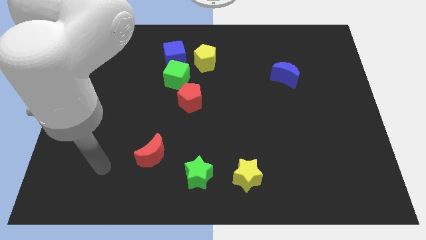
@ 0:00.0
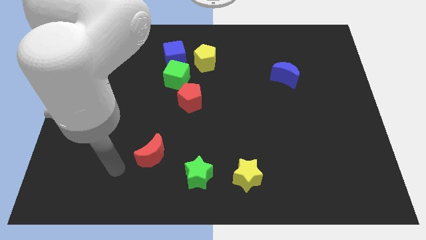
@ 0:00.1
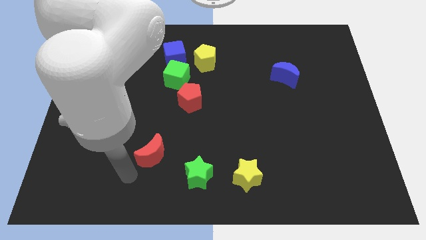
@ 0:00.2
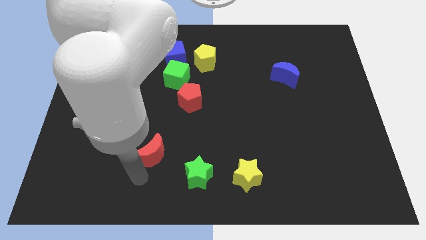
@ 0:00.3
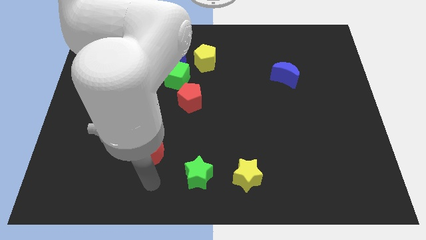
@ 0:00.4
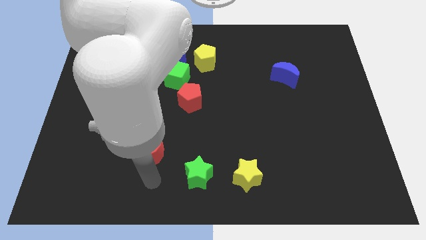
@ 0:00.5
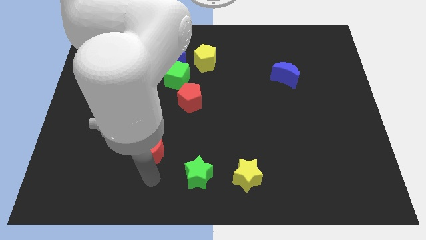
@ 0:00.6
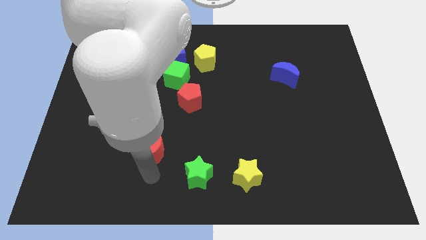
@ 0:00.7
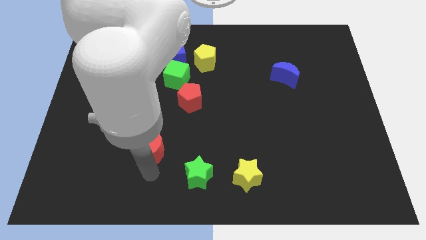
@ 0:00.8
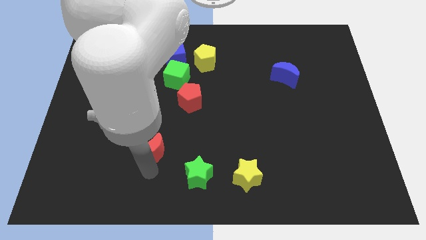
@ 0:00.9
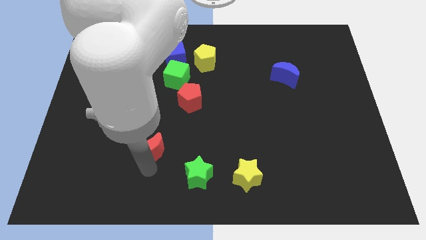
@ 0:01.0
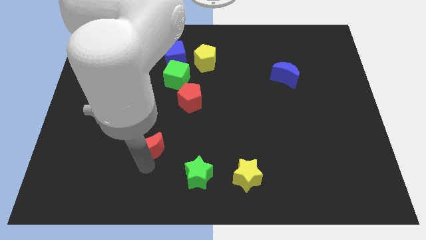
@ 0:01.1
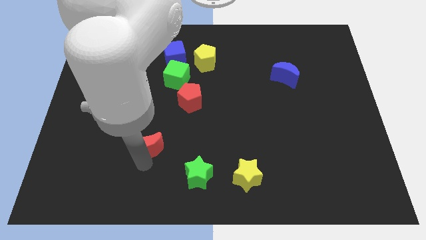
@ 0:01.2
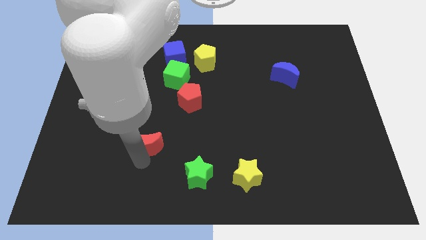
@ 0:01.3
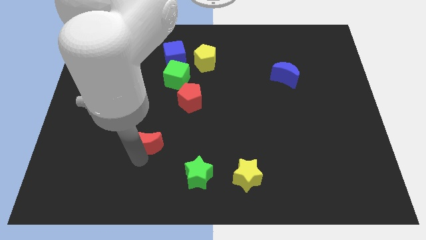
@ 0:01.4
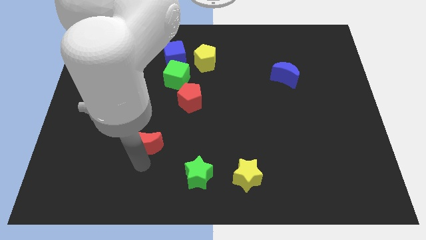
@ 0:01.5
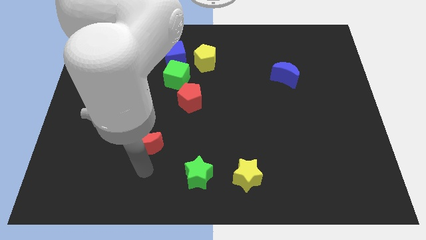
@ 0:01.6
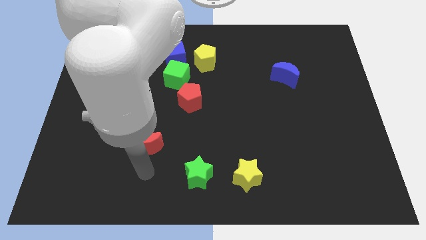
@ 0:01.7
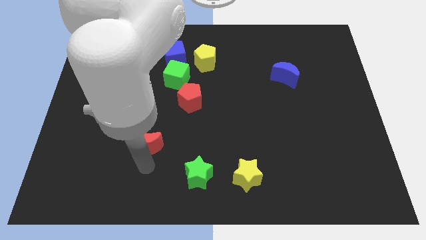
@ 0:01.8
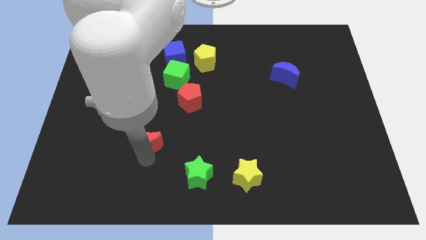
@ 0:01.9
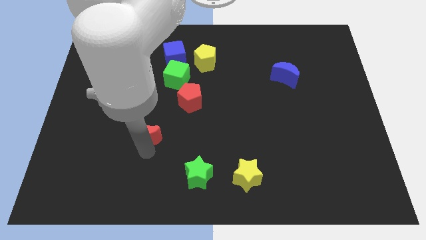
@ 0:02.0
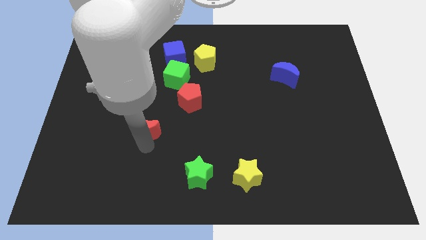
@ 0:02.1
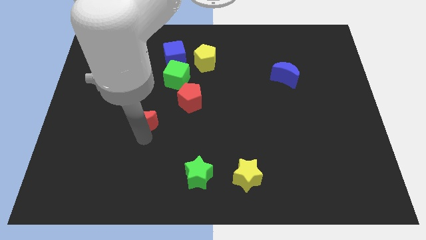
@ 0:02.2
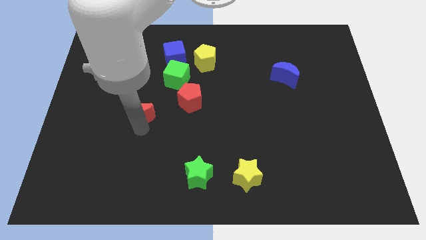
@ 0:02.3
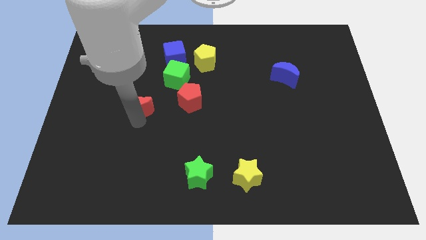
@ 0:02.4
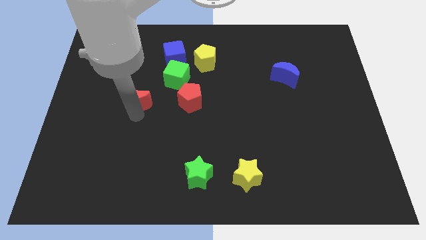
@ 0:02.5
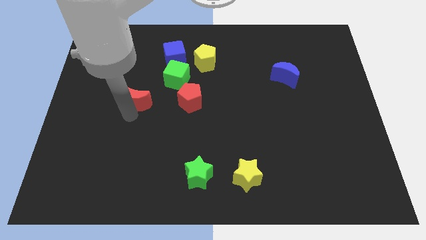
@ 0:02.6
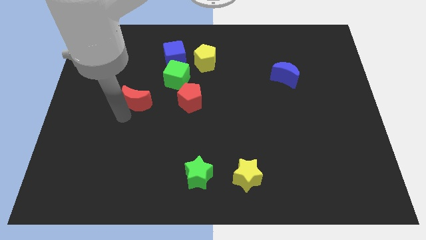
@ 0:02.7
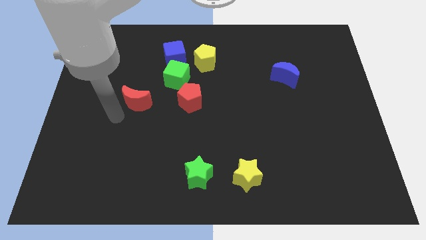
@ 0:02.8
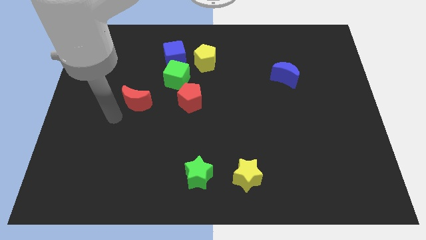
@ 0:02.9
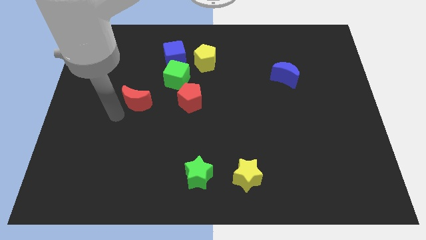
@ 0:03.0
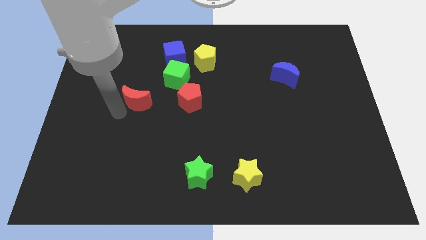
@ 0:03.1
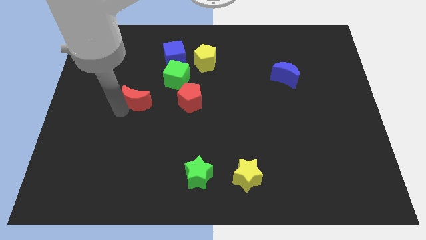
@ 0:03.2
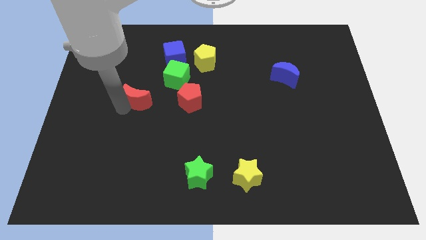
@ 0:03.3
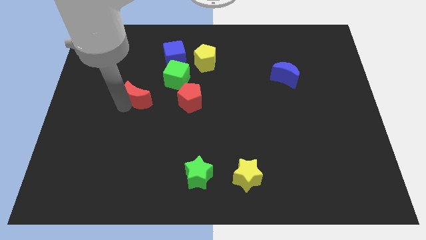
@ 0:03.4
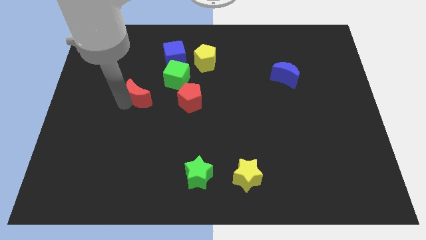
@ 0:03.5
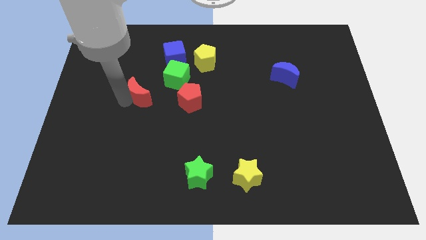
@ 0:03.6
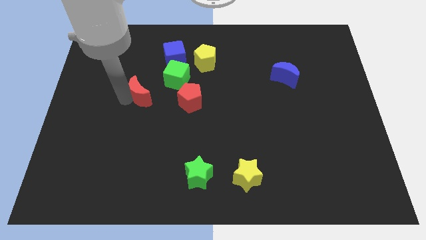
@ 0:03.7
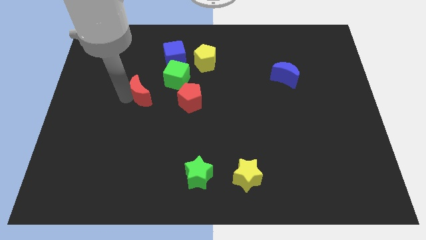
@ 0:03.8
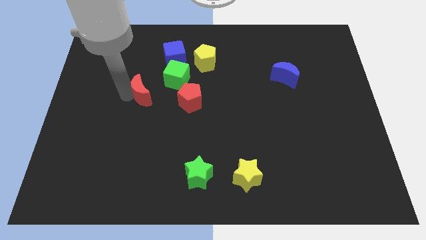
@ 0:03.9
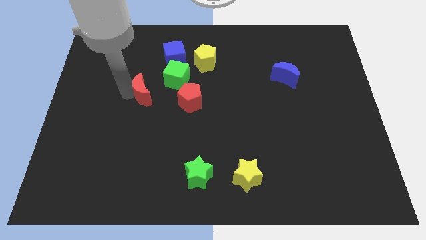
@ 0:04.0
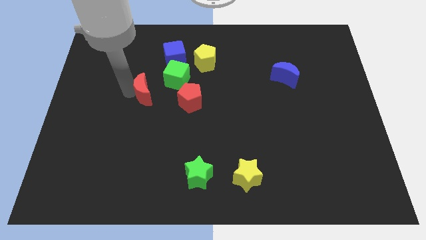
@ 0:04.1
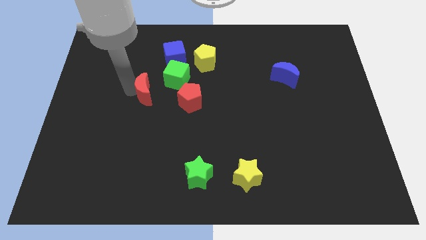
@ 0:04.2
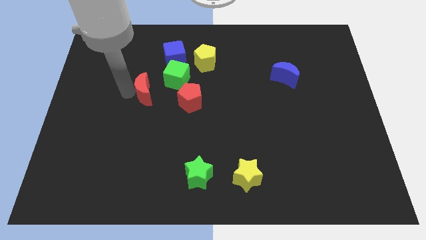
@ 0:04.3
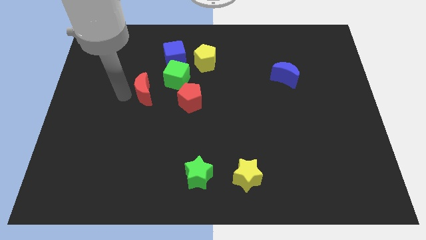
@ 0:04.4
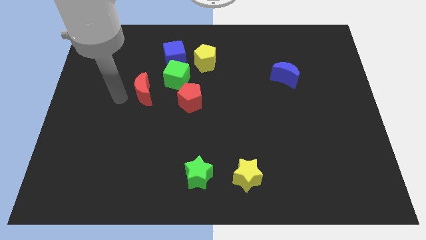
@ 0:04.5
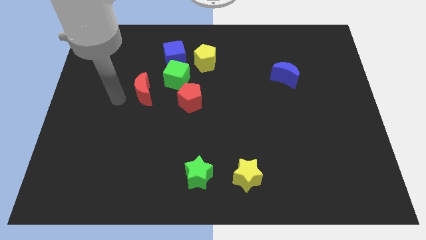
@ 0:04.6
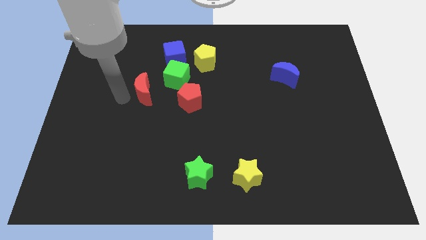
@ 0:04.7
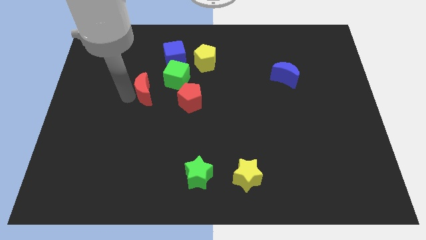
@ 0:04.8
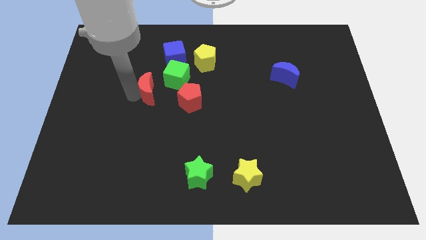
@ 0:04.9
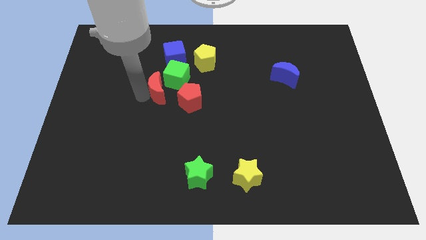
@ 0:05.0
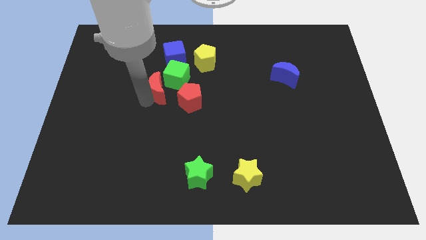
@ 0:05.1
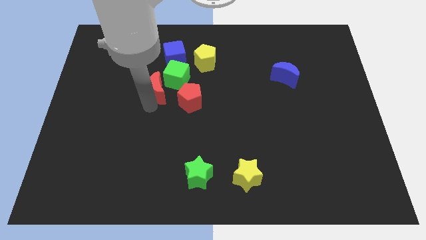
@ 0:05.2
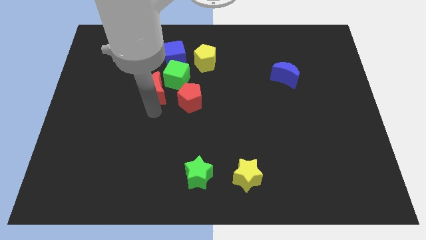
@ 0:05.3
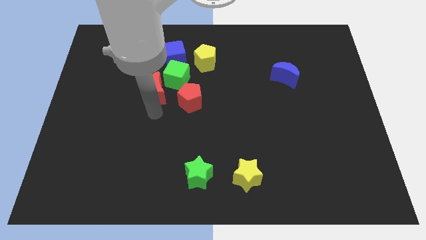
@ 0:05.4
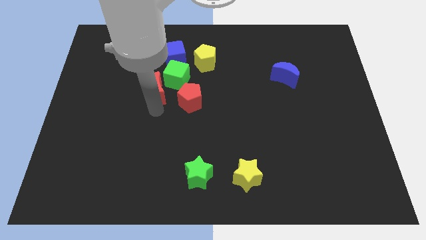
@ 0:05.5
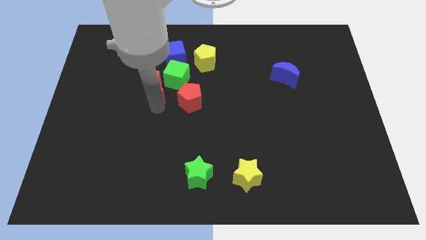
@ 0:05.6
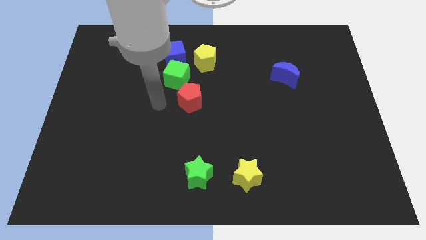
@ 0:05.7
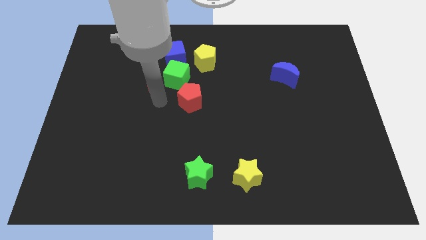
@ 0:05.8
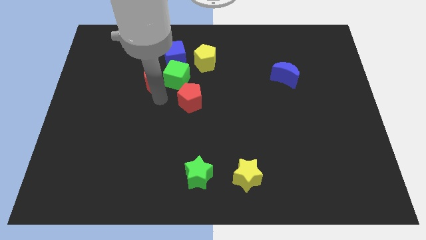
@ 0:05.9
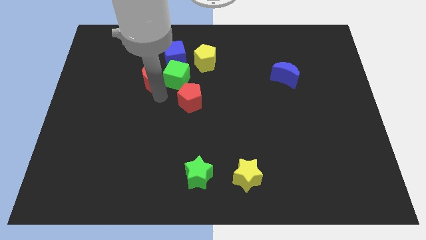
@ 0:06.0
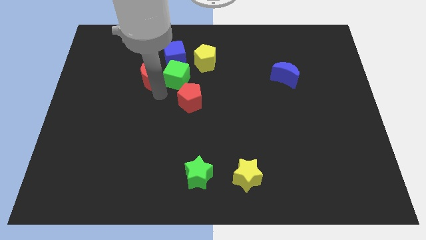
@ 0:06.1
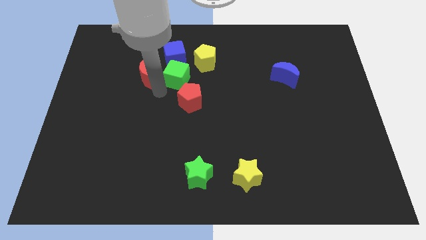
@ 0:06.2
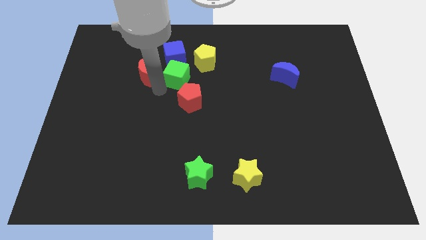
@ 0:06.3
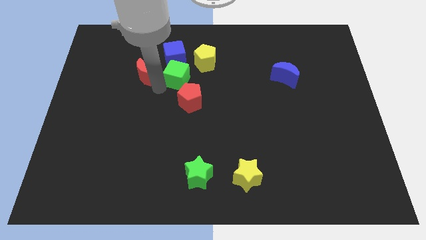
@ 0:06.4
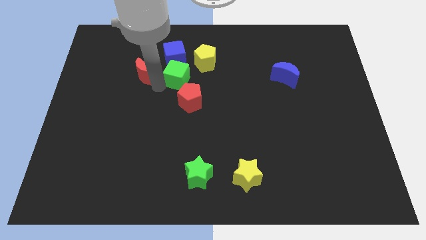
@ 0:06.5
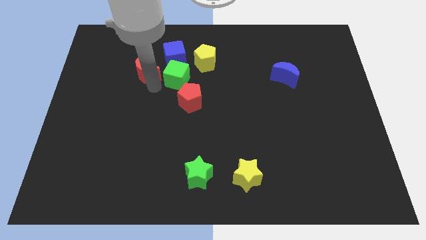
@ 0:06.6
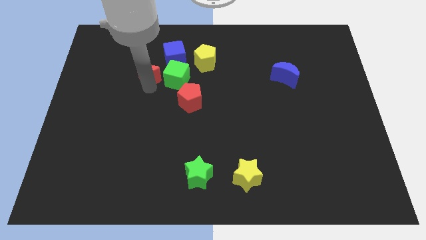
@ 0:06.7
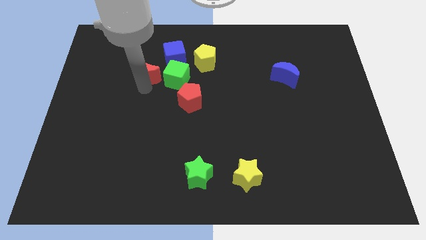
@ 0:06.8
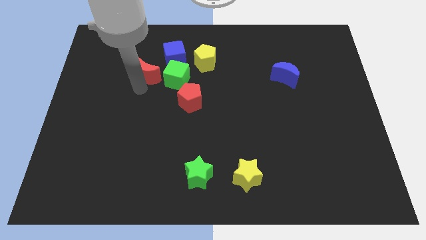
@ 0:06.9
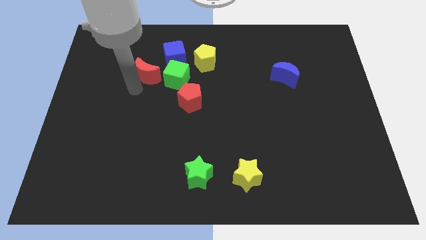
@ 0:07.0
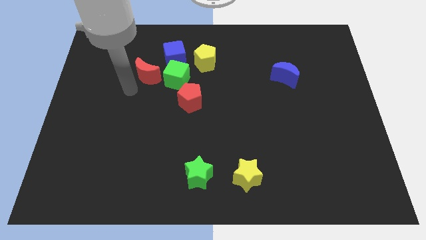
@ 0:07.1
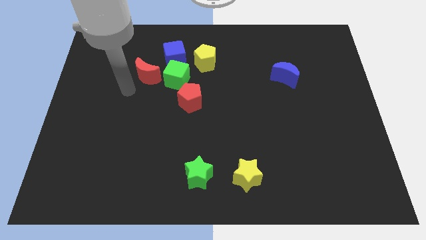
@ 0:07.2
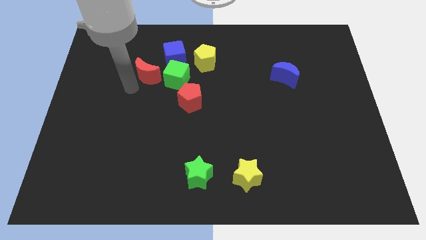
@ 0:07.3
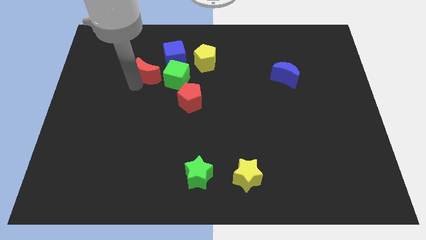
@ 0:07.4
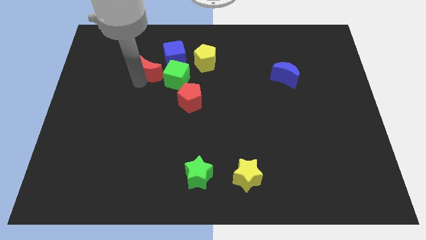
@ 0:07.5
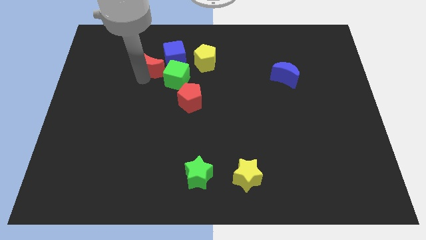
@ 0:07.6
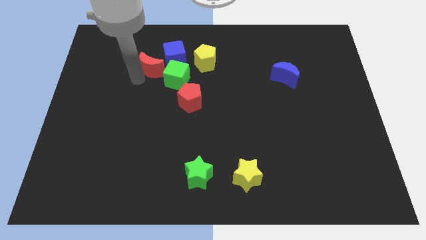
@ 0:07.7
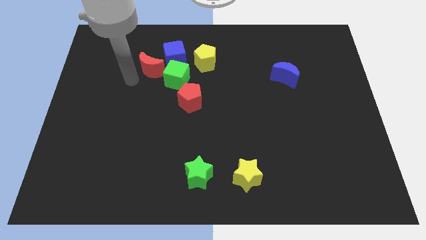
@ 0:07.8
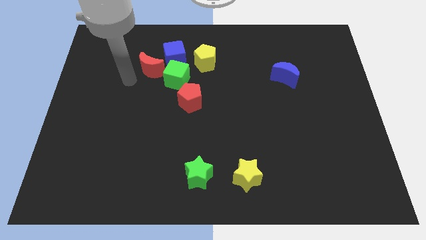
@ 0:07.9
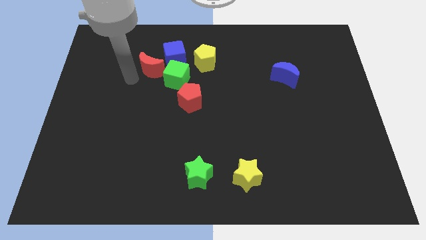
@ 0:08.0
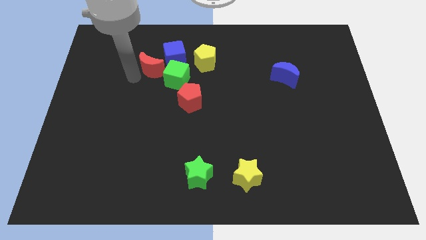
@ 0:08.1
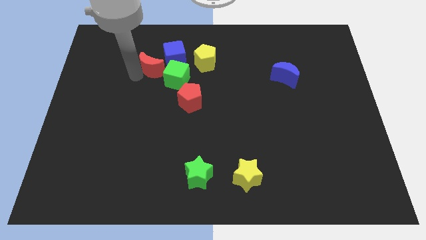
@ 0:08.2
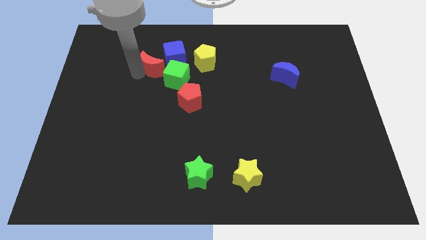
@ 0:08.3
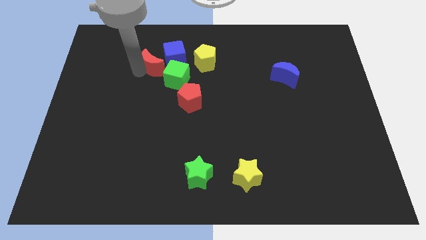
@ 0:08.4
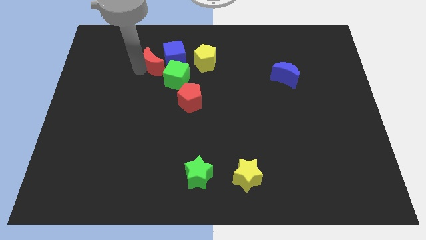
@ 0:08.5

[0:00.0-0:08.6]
push the red moon towards the blue cube
